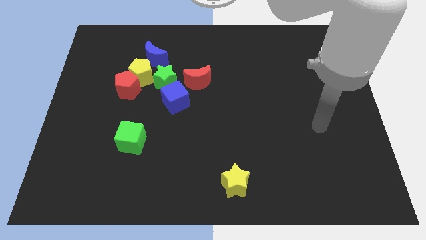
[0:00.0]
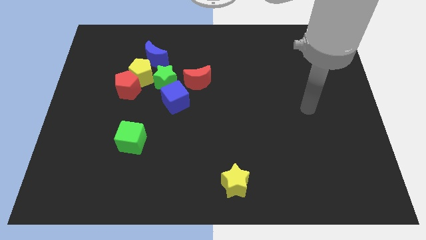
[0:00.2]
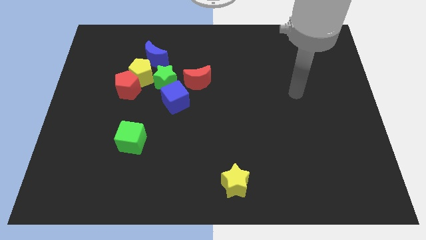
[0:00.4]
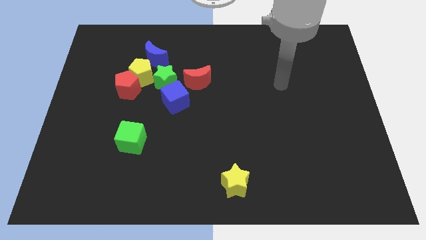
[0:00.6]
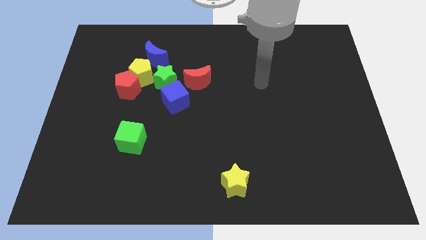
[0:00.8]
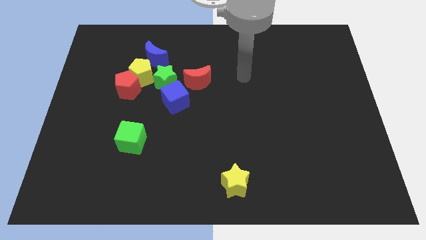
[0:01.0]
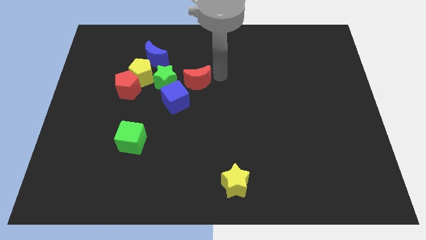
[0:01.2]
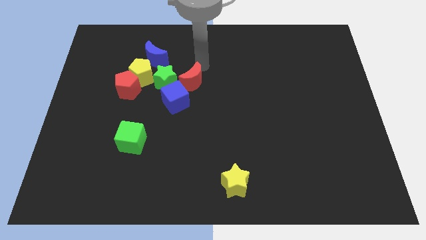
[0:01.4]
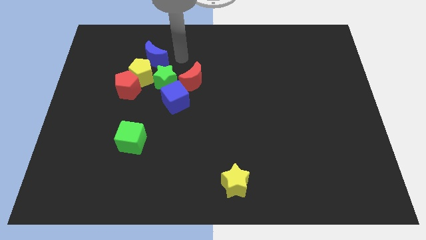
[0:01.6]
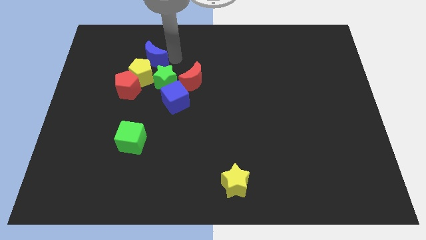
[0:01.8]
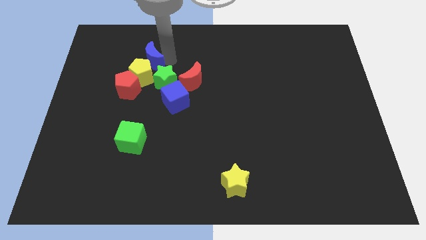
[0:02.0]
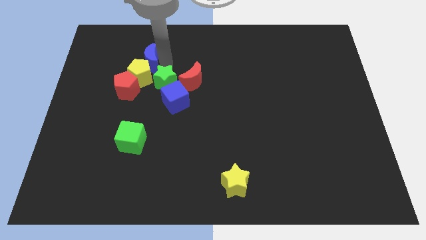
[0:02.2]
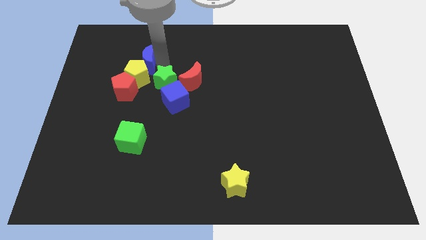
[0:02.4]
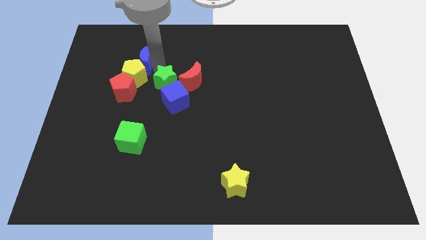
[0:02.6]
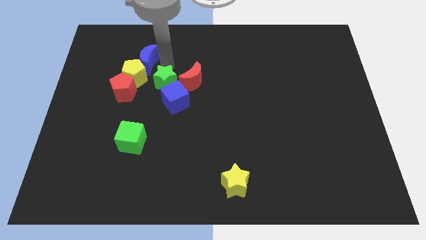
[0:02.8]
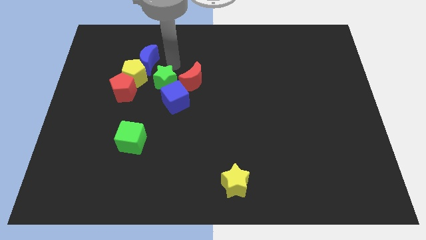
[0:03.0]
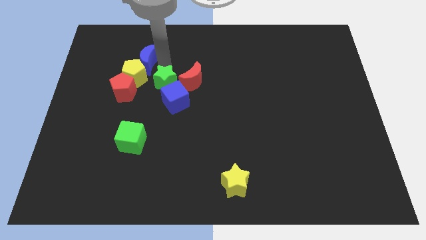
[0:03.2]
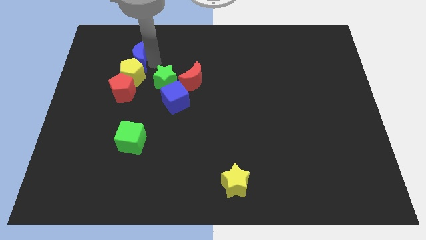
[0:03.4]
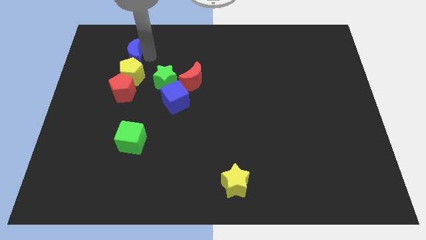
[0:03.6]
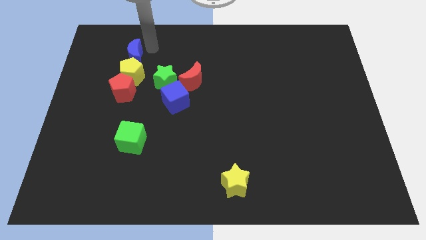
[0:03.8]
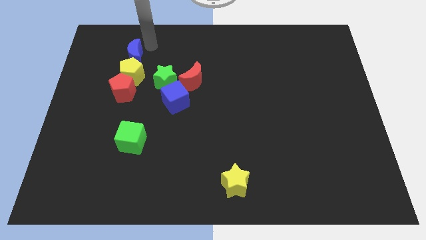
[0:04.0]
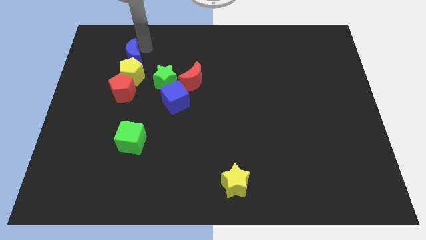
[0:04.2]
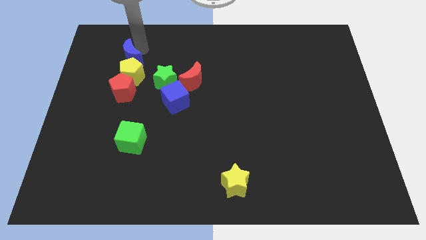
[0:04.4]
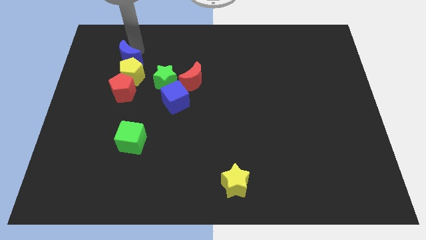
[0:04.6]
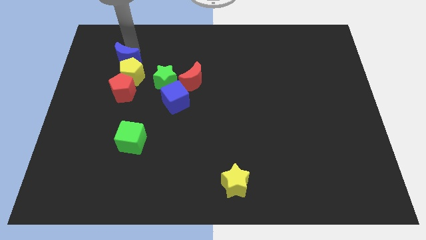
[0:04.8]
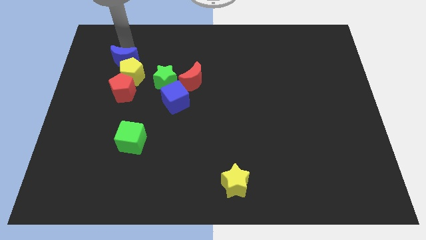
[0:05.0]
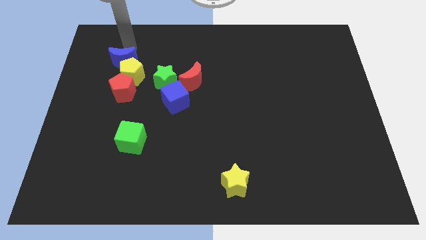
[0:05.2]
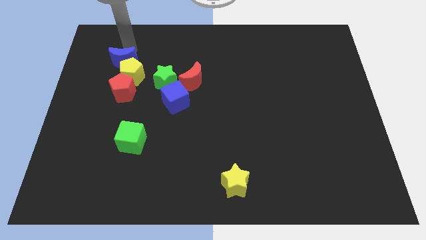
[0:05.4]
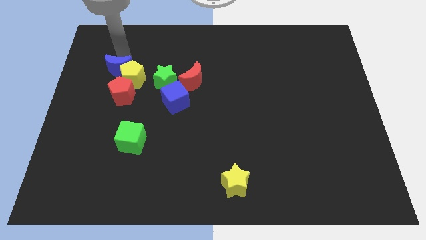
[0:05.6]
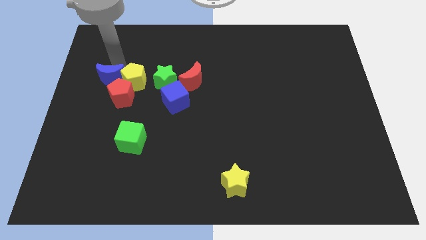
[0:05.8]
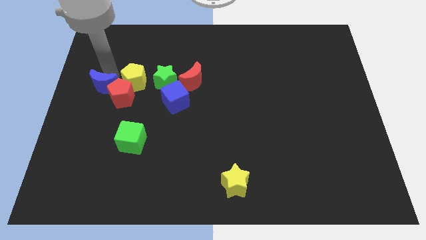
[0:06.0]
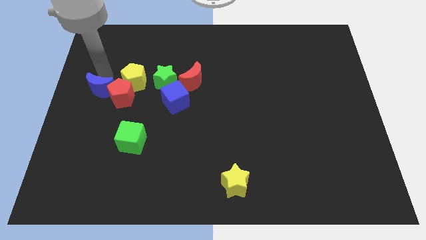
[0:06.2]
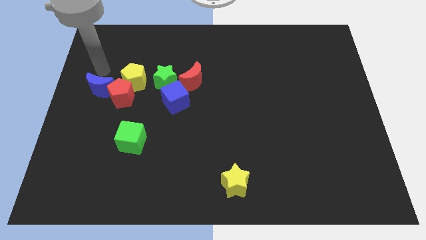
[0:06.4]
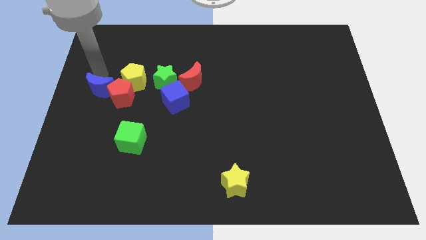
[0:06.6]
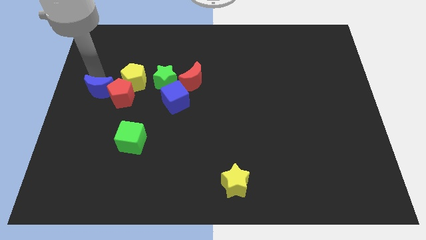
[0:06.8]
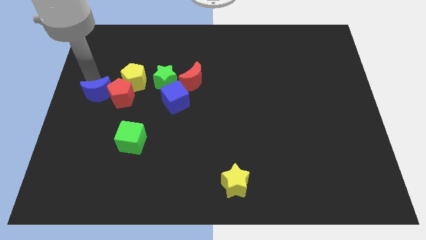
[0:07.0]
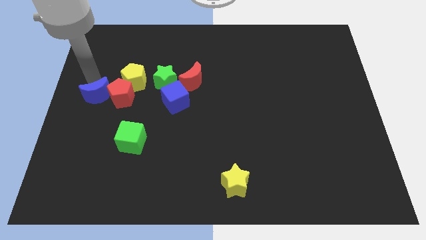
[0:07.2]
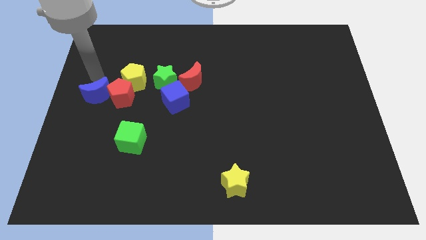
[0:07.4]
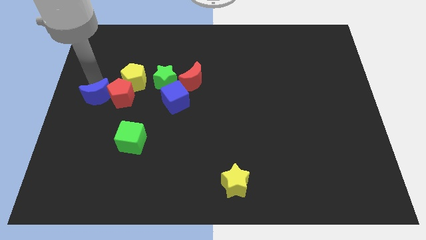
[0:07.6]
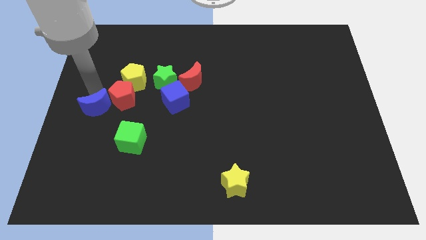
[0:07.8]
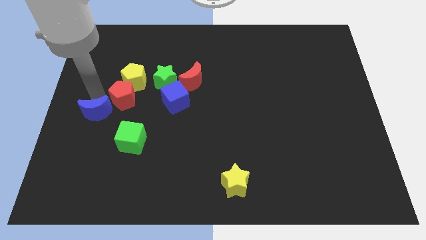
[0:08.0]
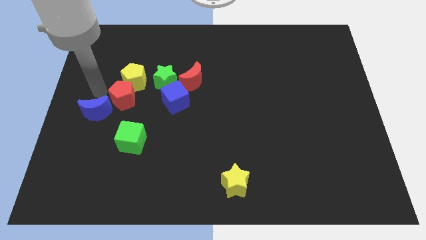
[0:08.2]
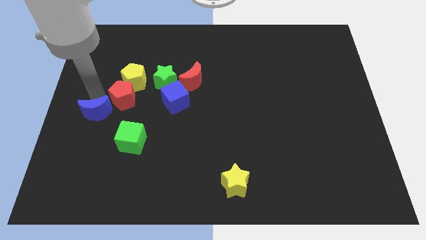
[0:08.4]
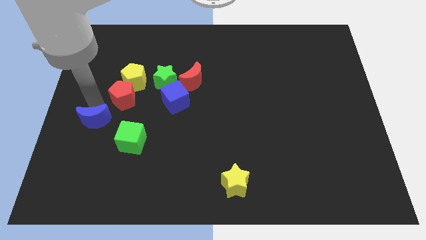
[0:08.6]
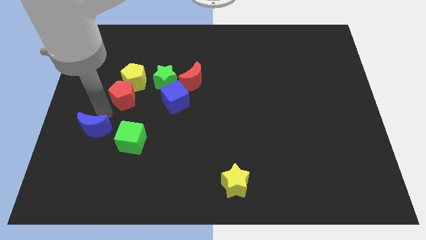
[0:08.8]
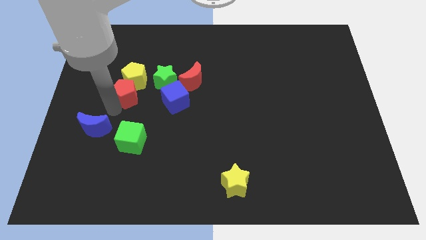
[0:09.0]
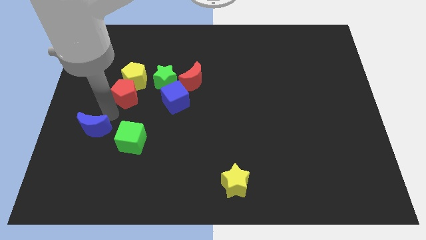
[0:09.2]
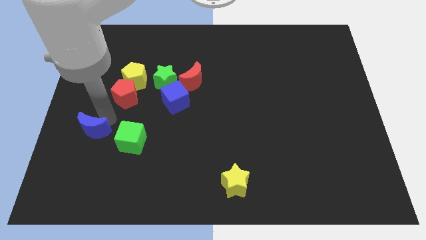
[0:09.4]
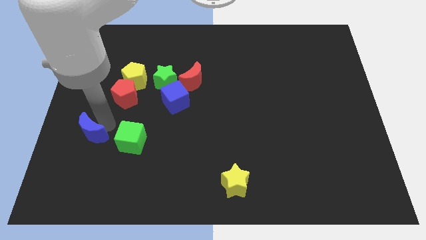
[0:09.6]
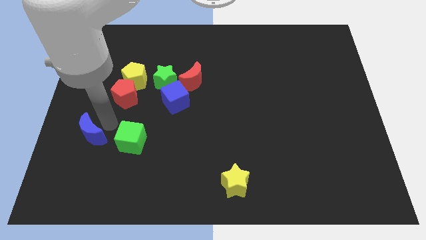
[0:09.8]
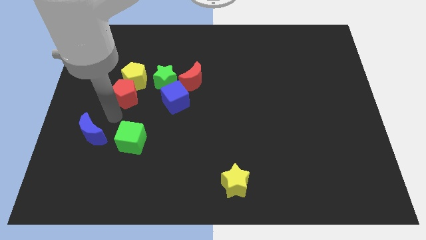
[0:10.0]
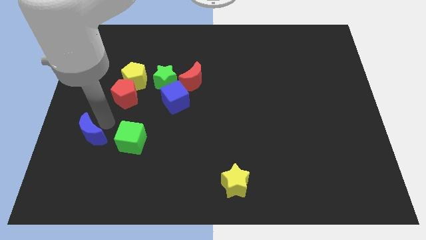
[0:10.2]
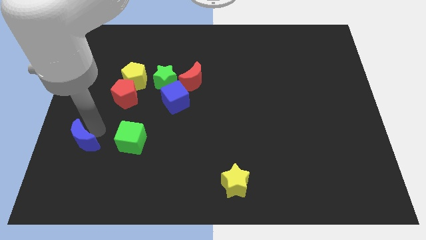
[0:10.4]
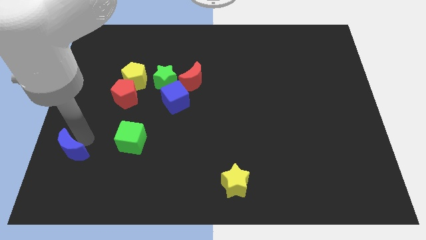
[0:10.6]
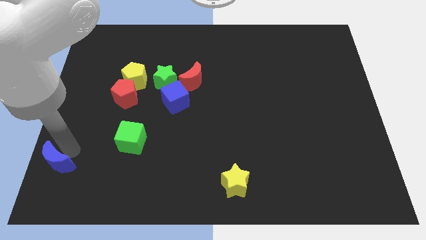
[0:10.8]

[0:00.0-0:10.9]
move the blue moon to the lower left corner

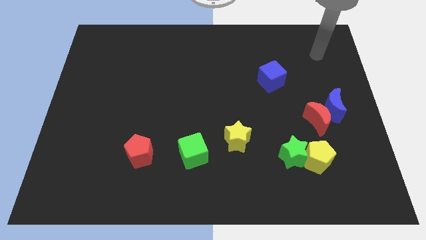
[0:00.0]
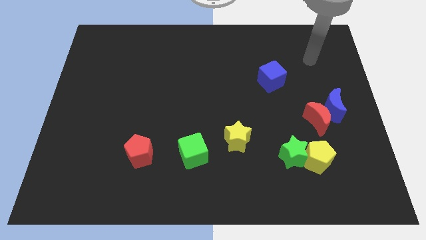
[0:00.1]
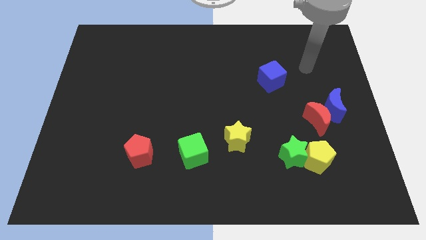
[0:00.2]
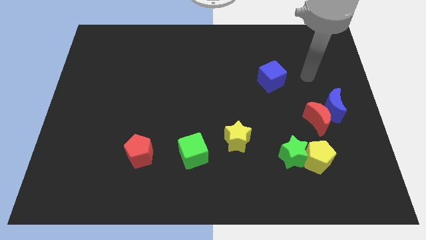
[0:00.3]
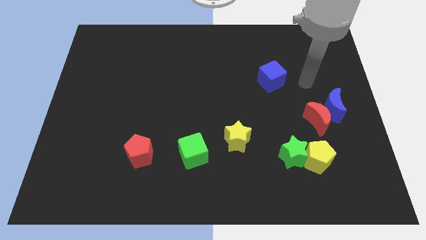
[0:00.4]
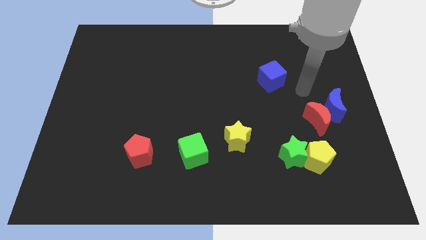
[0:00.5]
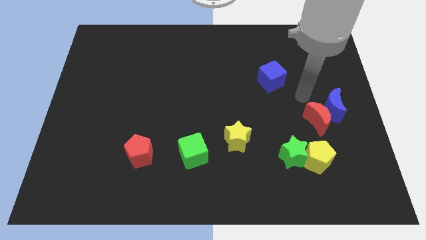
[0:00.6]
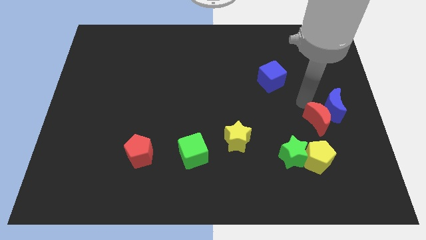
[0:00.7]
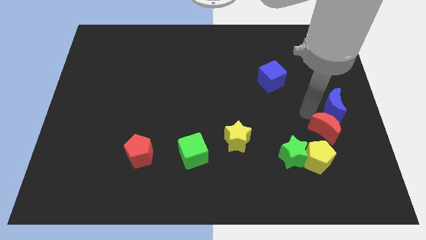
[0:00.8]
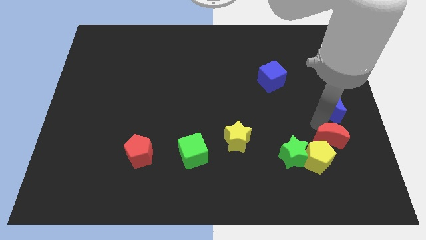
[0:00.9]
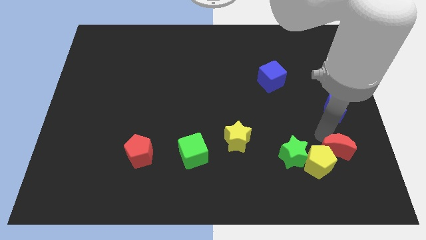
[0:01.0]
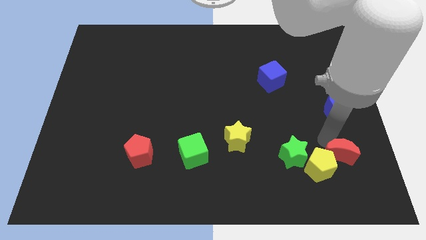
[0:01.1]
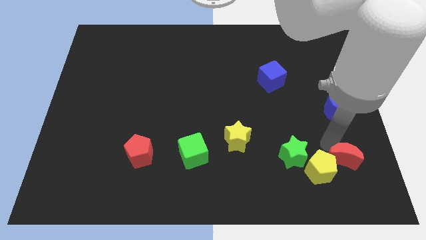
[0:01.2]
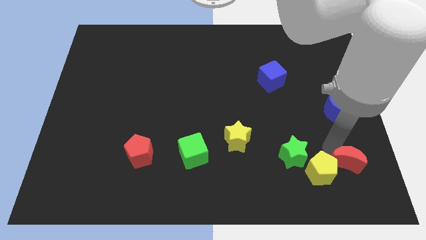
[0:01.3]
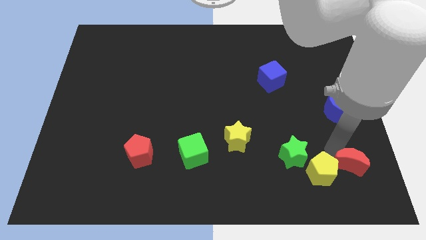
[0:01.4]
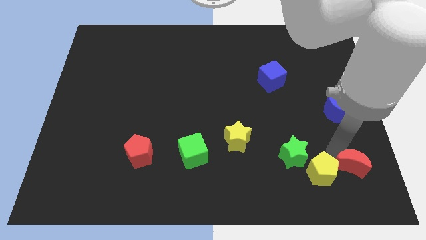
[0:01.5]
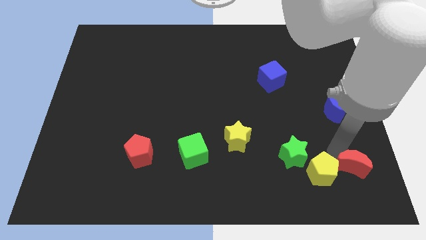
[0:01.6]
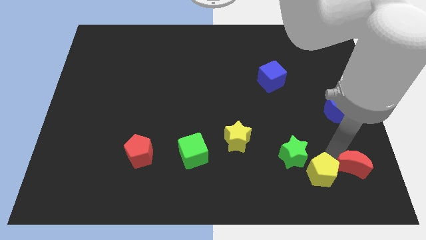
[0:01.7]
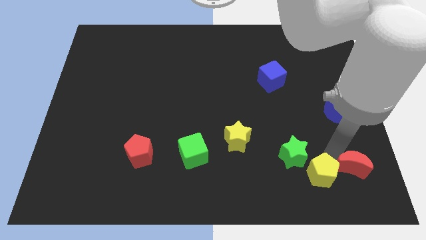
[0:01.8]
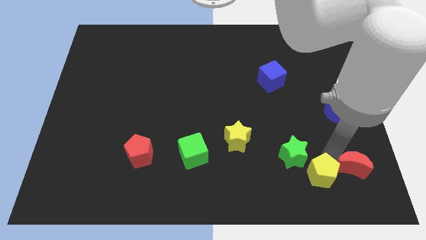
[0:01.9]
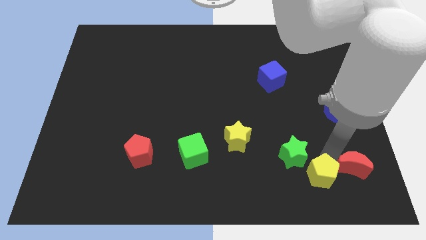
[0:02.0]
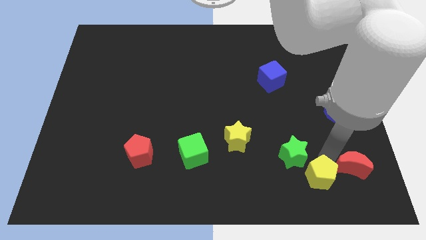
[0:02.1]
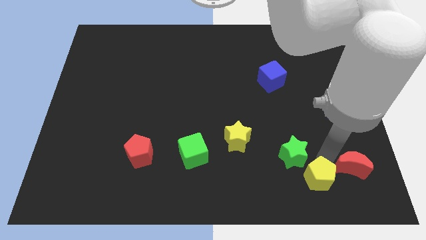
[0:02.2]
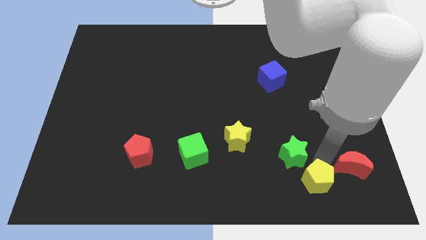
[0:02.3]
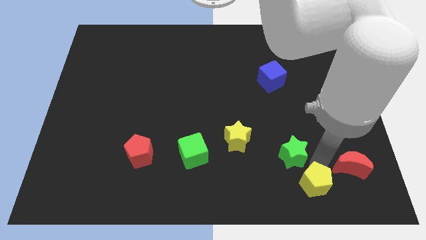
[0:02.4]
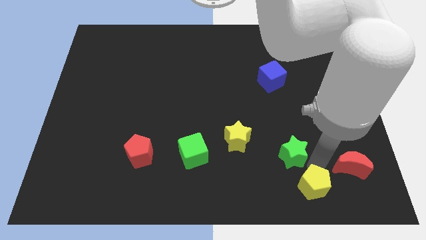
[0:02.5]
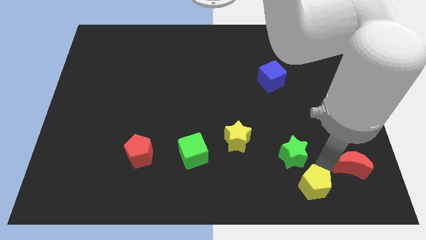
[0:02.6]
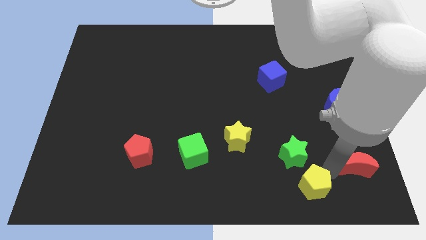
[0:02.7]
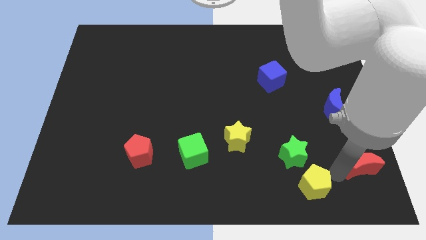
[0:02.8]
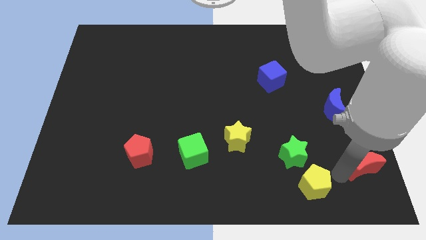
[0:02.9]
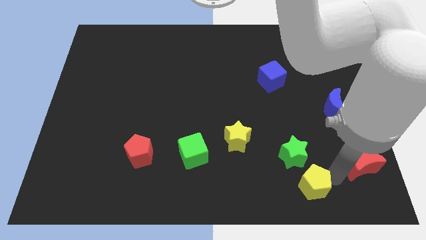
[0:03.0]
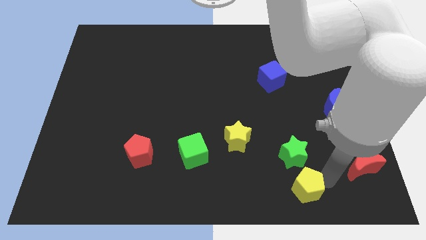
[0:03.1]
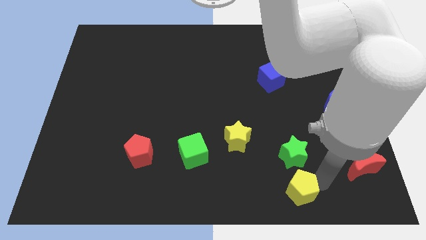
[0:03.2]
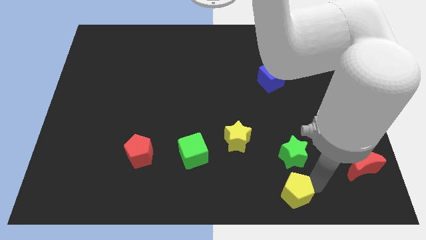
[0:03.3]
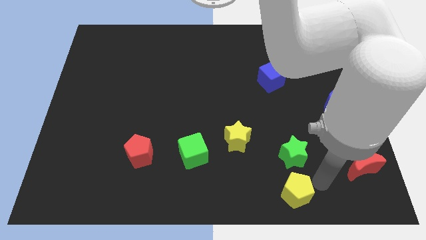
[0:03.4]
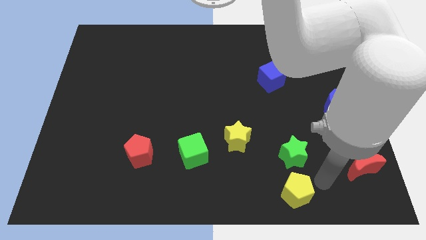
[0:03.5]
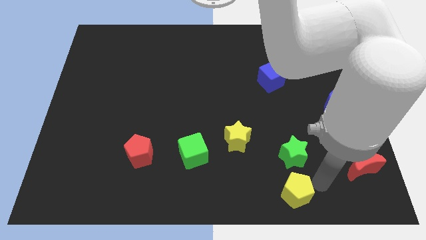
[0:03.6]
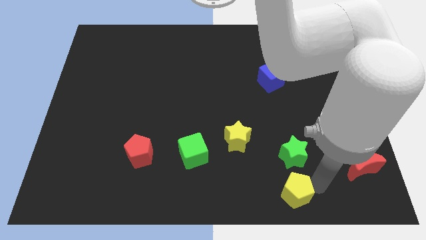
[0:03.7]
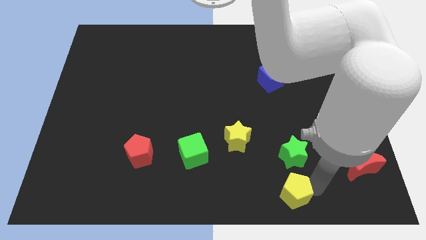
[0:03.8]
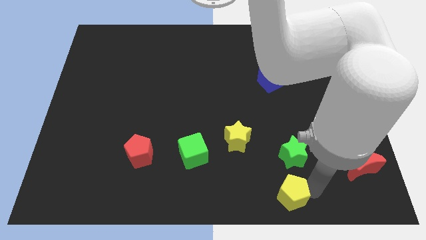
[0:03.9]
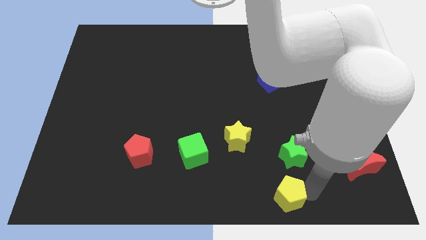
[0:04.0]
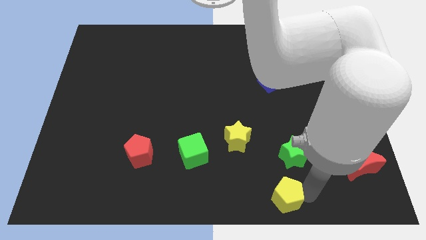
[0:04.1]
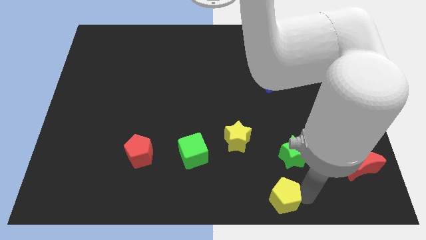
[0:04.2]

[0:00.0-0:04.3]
push the yellow pentagon to the bottom side
